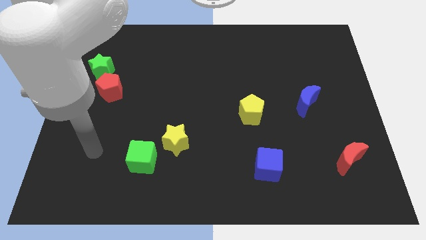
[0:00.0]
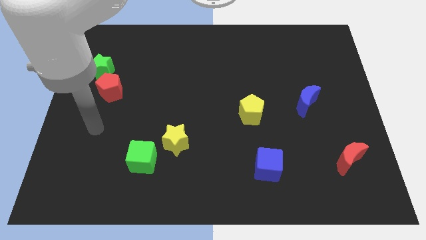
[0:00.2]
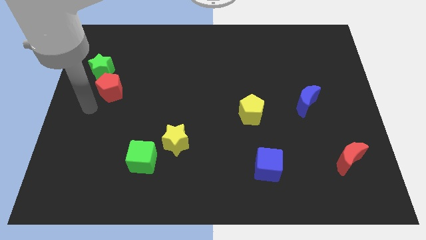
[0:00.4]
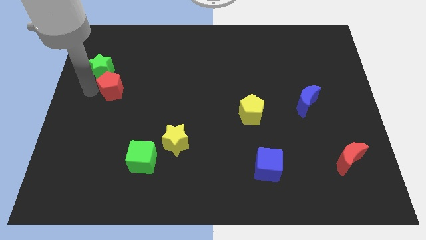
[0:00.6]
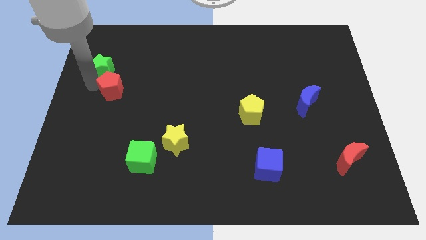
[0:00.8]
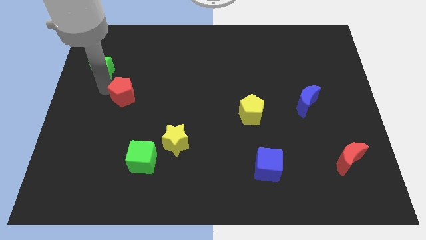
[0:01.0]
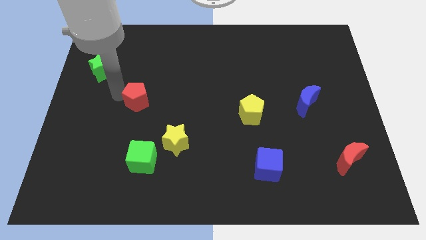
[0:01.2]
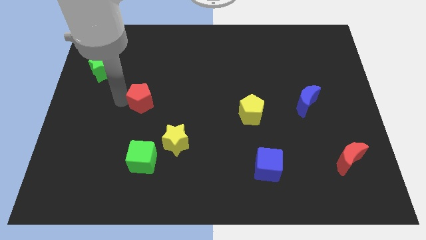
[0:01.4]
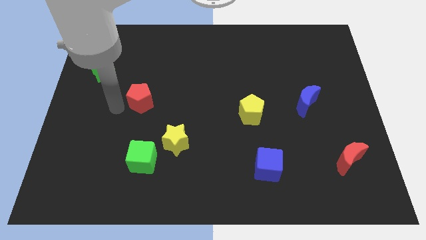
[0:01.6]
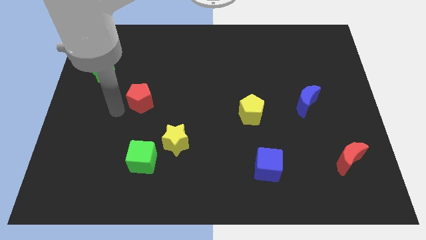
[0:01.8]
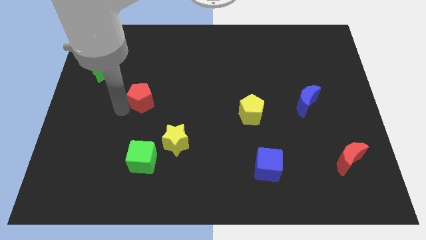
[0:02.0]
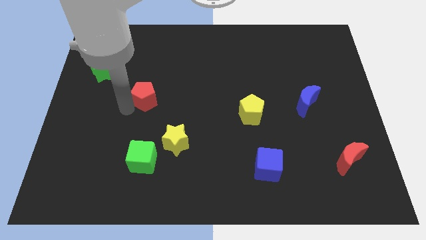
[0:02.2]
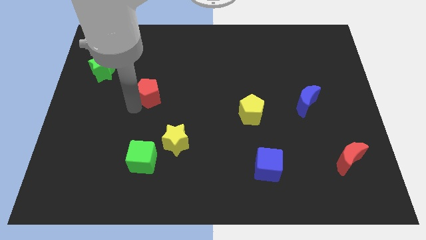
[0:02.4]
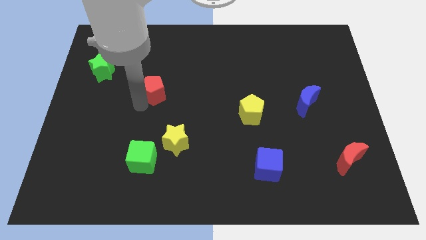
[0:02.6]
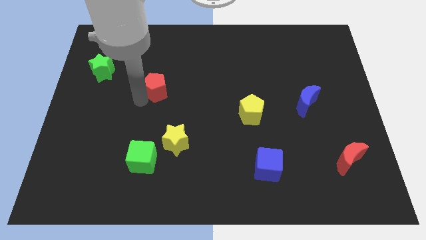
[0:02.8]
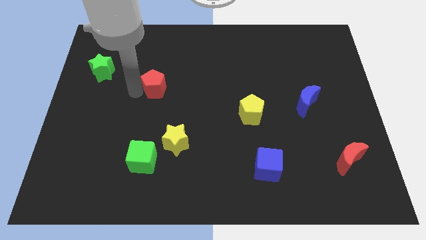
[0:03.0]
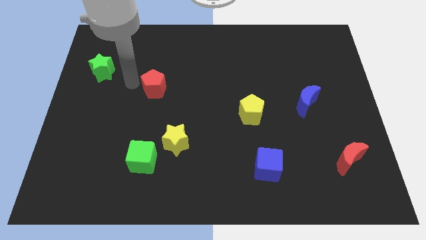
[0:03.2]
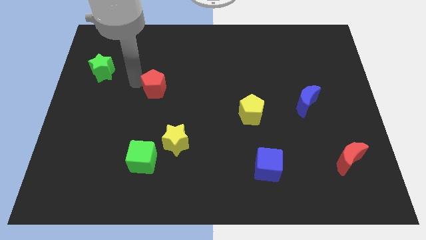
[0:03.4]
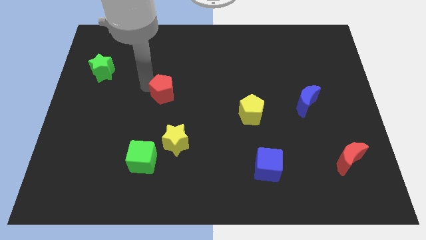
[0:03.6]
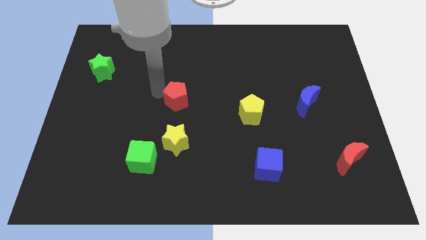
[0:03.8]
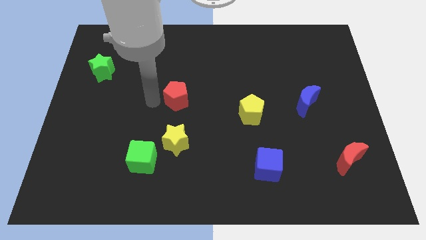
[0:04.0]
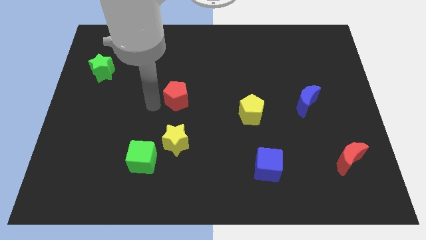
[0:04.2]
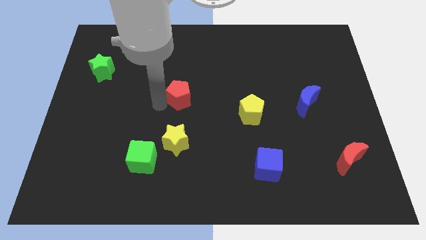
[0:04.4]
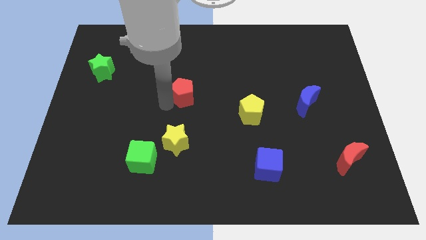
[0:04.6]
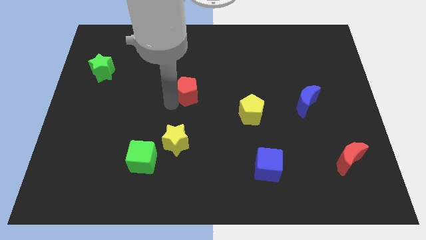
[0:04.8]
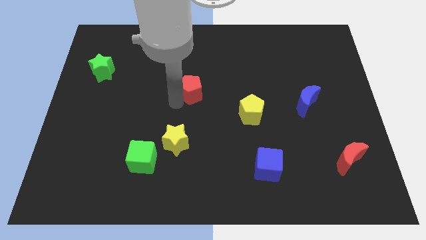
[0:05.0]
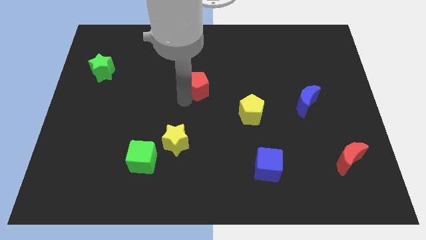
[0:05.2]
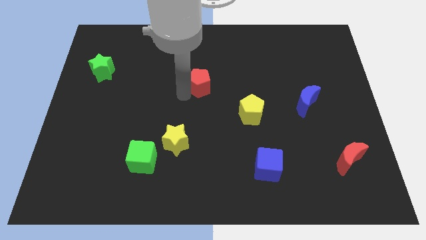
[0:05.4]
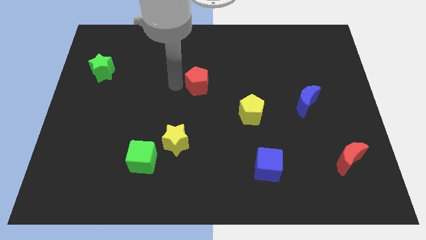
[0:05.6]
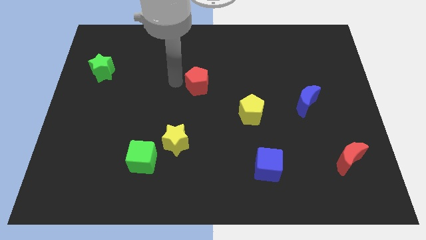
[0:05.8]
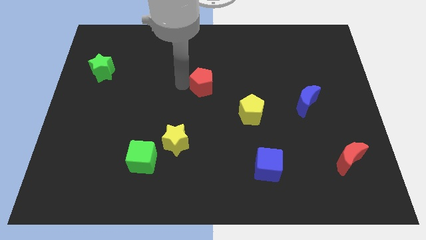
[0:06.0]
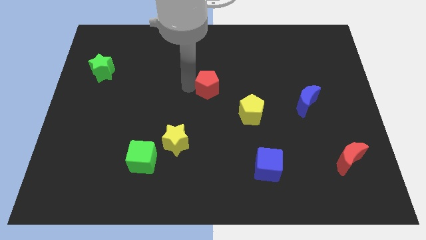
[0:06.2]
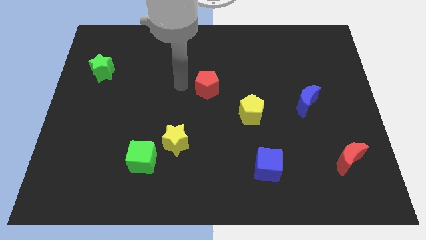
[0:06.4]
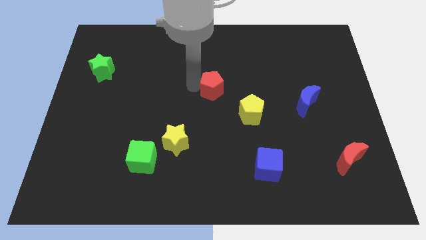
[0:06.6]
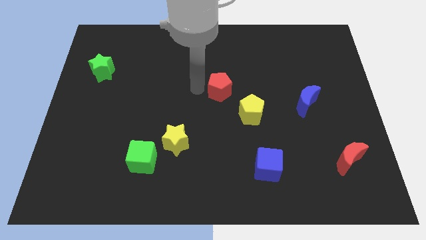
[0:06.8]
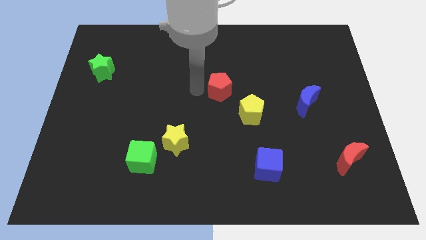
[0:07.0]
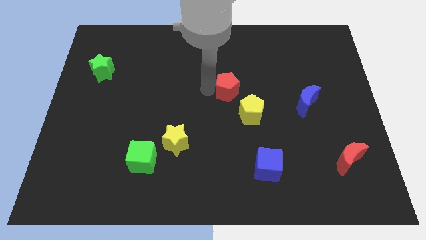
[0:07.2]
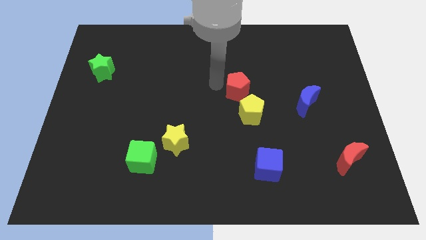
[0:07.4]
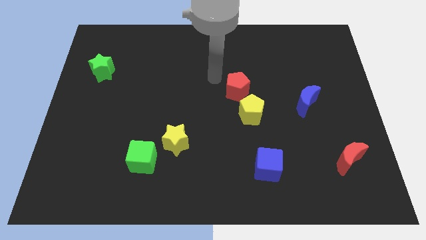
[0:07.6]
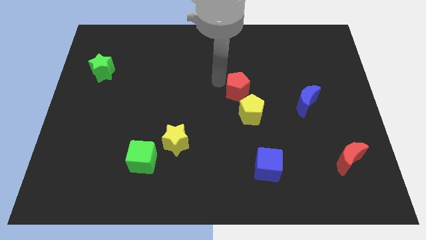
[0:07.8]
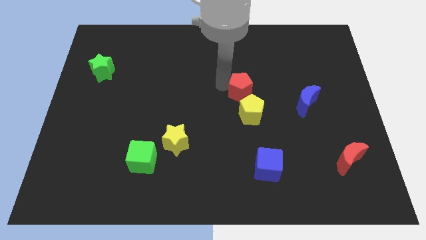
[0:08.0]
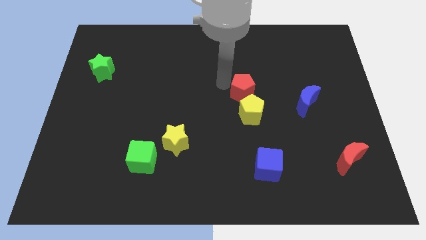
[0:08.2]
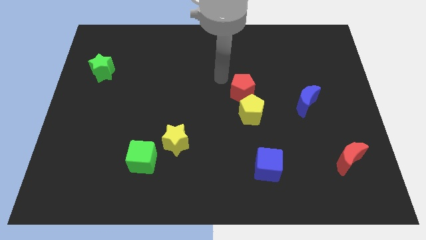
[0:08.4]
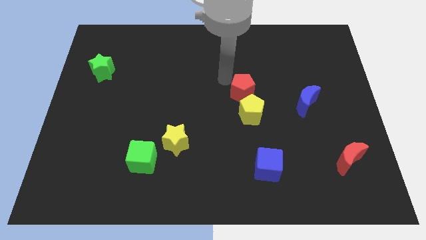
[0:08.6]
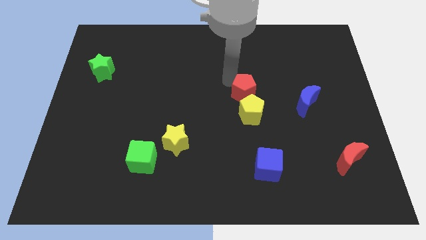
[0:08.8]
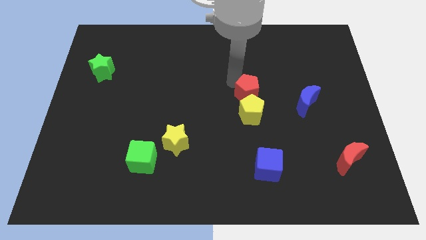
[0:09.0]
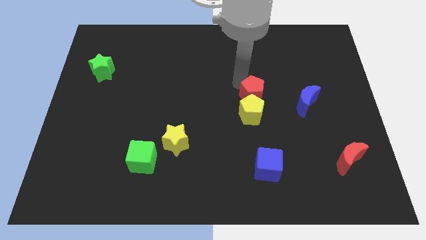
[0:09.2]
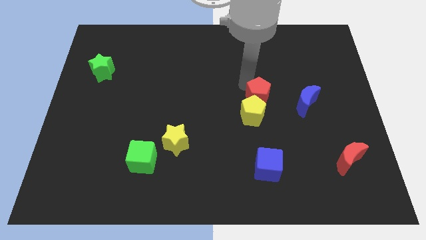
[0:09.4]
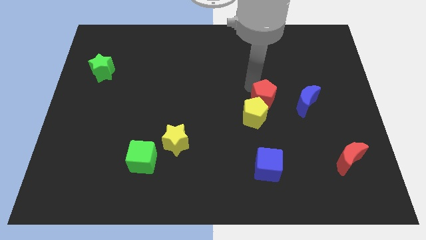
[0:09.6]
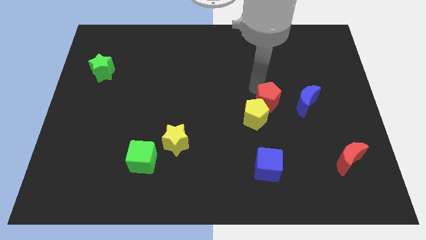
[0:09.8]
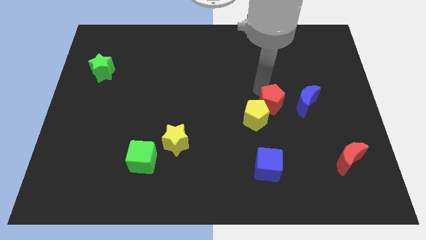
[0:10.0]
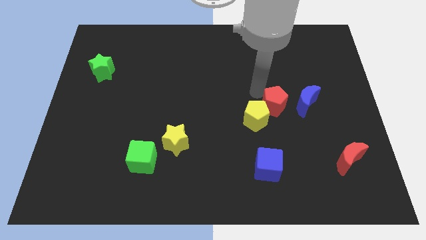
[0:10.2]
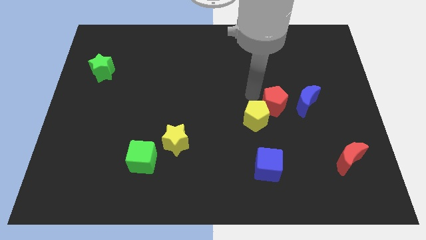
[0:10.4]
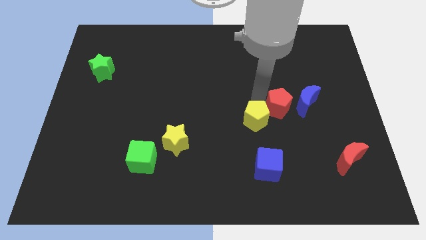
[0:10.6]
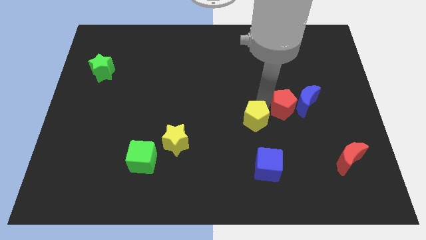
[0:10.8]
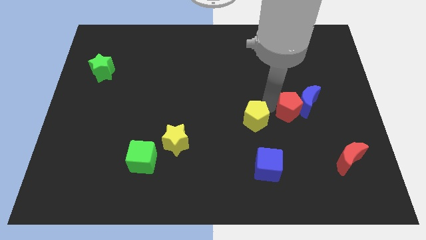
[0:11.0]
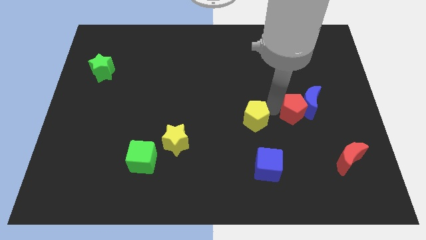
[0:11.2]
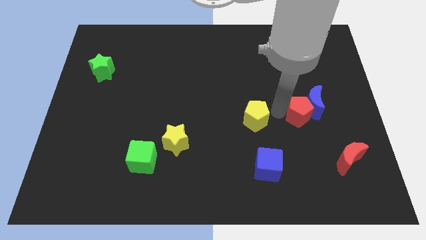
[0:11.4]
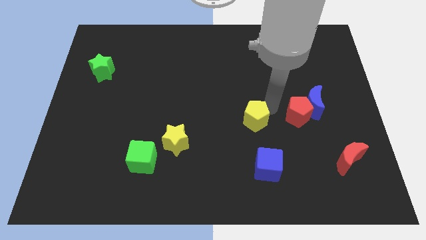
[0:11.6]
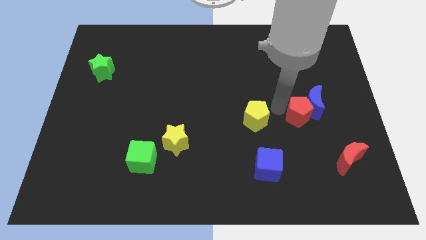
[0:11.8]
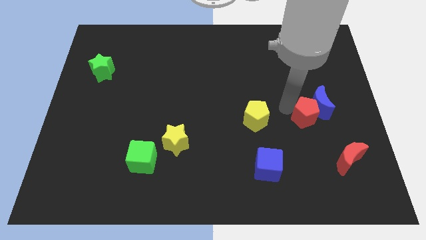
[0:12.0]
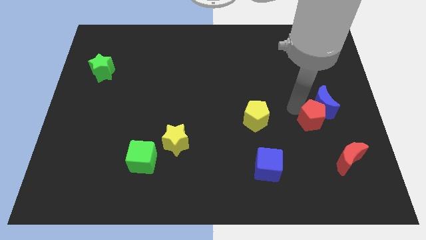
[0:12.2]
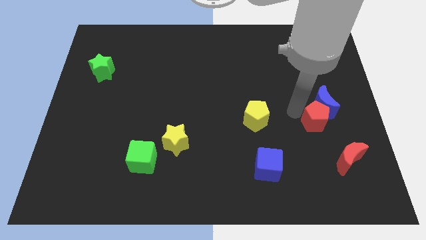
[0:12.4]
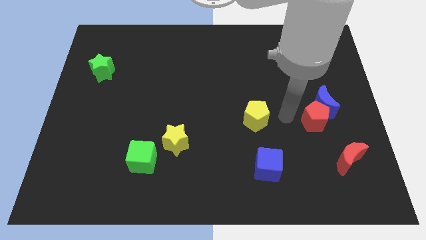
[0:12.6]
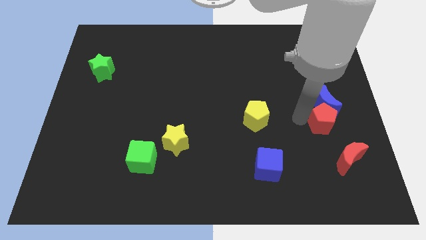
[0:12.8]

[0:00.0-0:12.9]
move the red pentagon diagonally down and to the right of the blue moon
